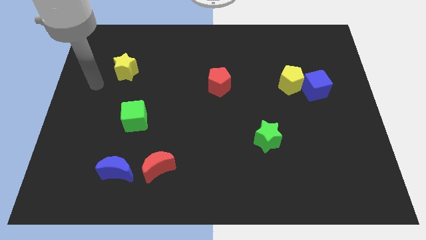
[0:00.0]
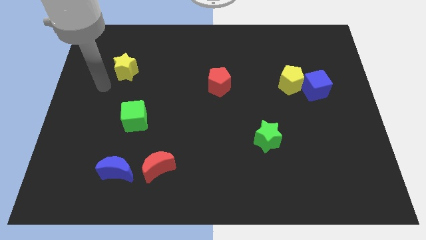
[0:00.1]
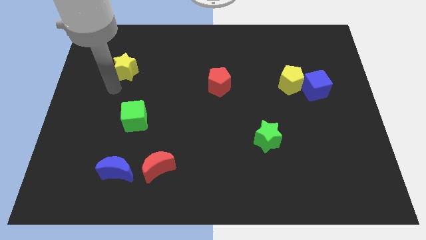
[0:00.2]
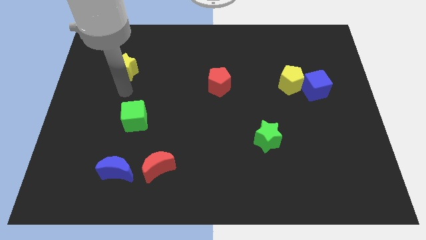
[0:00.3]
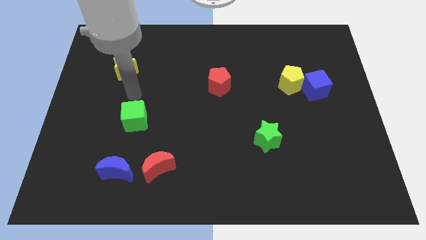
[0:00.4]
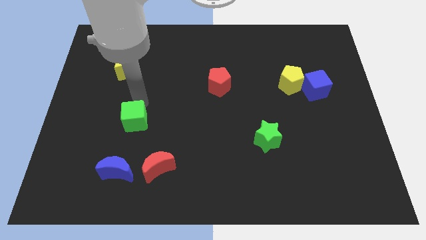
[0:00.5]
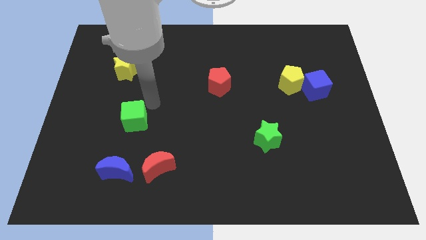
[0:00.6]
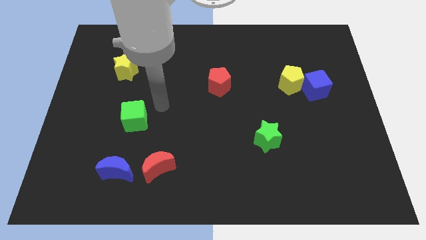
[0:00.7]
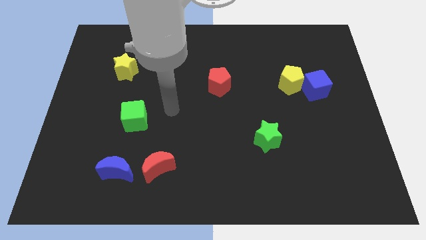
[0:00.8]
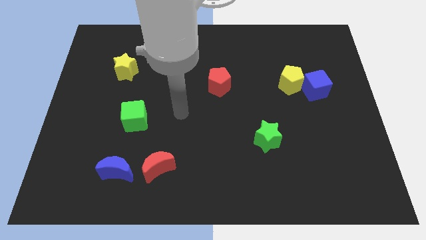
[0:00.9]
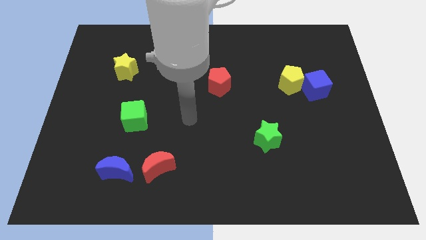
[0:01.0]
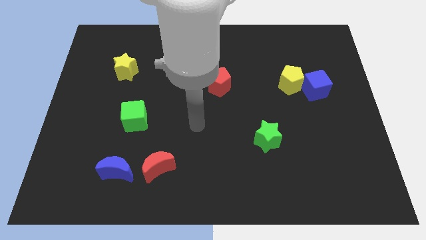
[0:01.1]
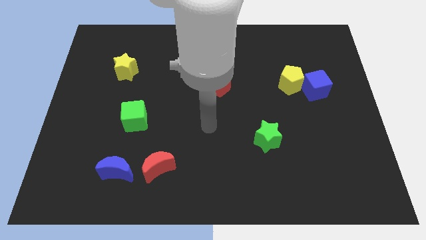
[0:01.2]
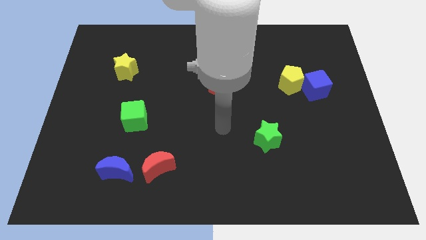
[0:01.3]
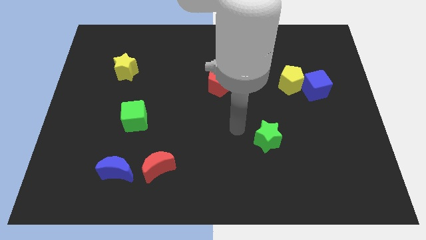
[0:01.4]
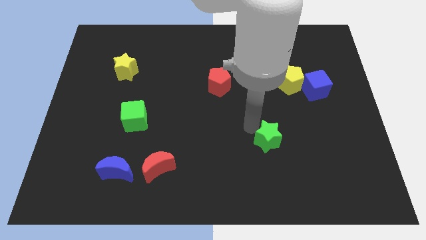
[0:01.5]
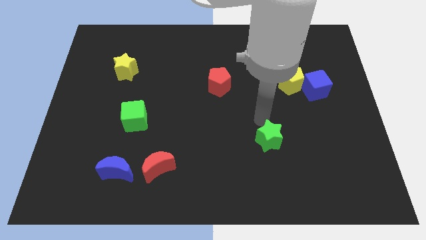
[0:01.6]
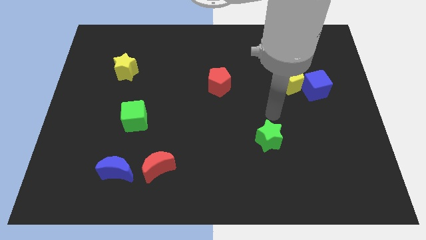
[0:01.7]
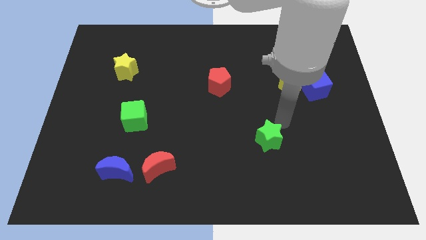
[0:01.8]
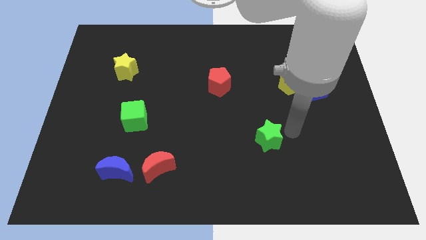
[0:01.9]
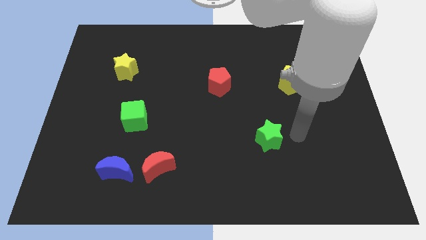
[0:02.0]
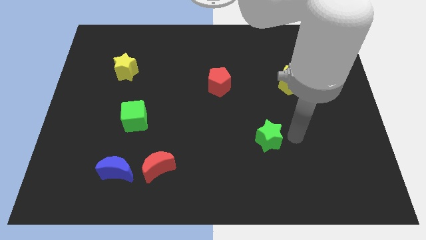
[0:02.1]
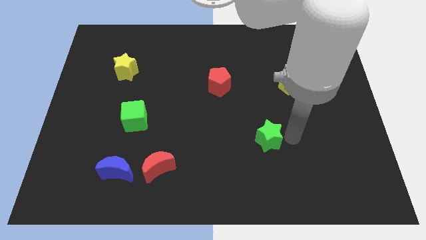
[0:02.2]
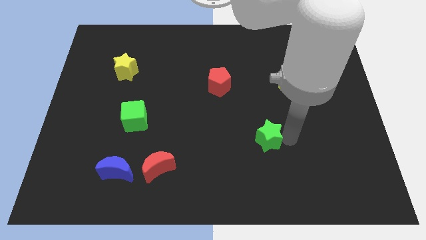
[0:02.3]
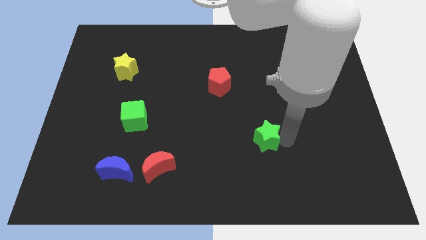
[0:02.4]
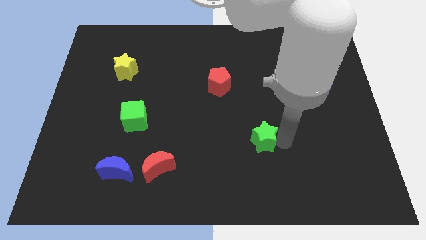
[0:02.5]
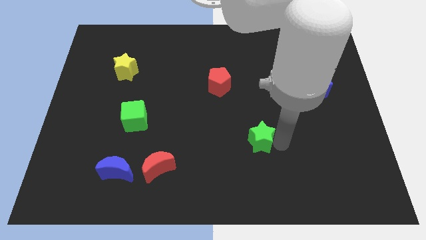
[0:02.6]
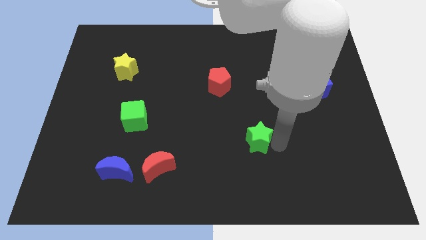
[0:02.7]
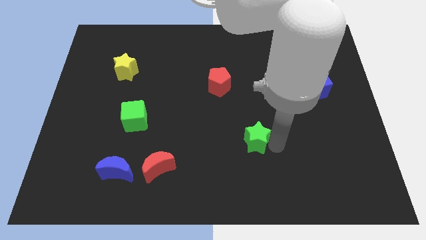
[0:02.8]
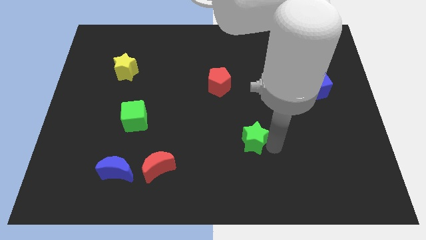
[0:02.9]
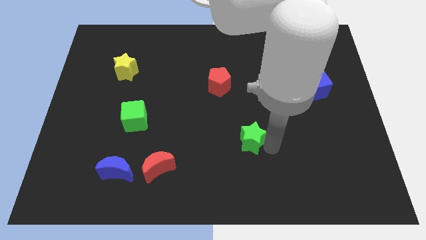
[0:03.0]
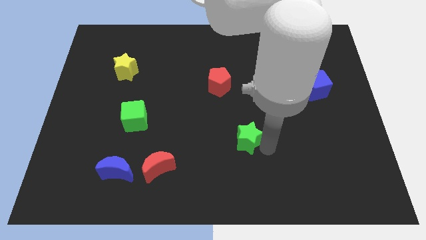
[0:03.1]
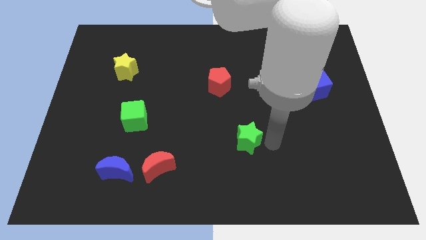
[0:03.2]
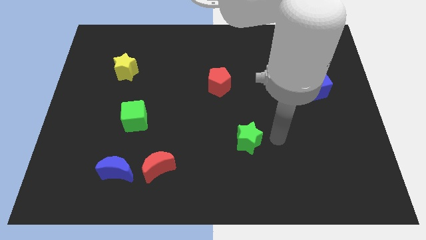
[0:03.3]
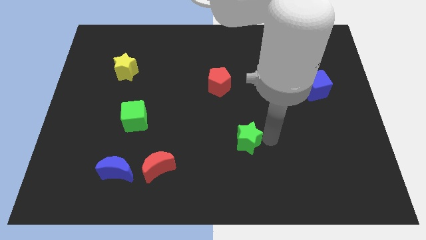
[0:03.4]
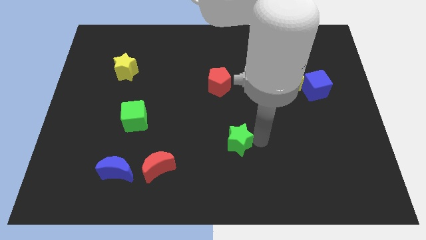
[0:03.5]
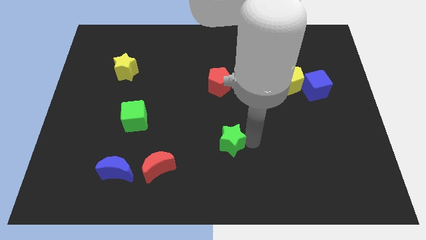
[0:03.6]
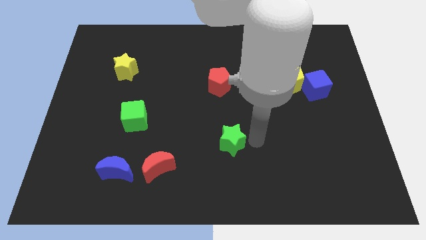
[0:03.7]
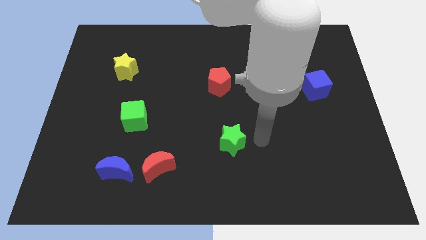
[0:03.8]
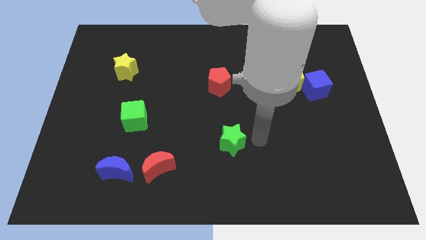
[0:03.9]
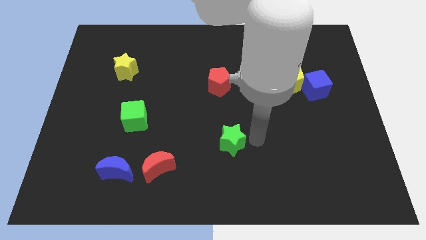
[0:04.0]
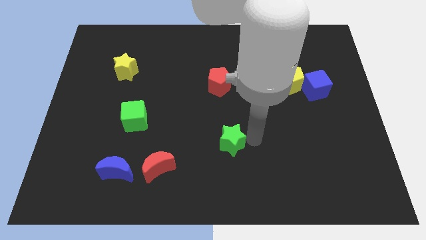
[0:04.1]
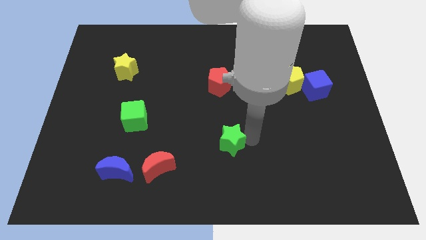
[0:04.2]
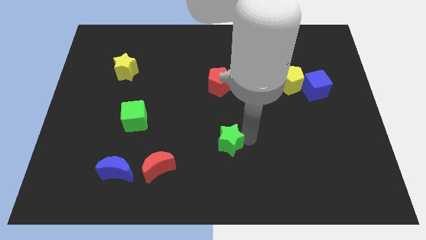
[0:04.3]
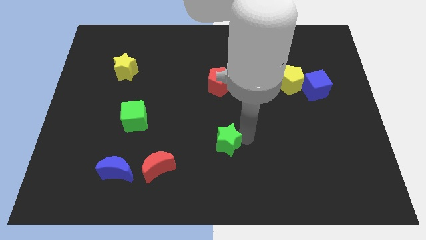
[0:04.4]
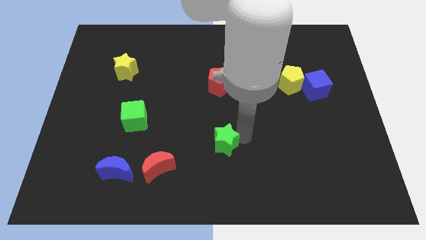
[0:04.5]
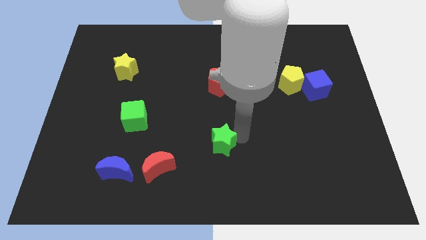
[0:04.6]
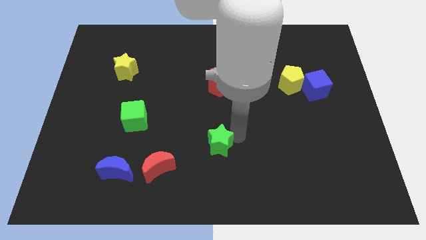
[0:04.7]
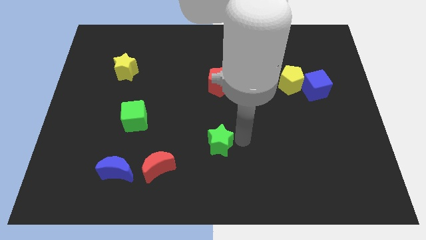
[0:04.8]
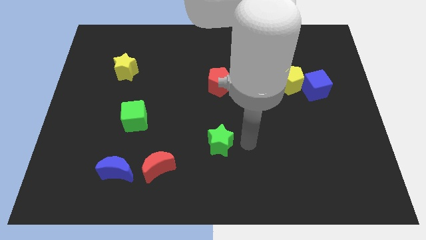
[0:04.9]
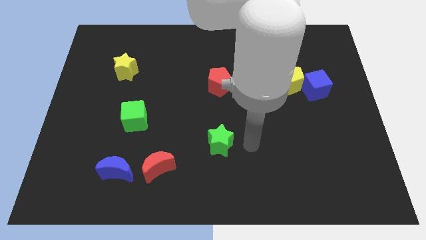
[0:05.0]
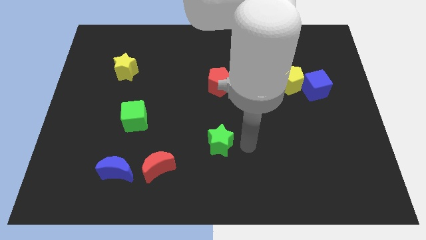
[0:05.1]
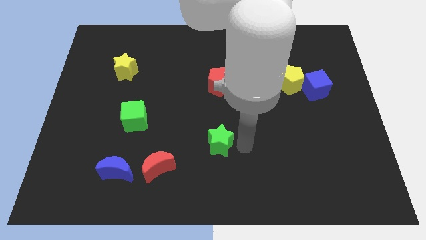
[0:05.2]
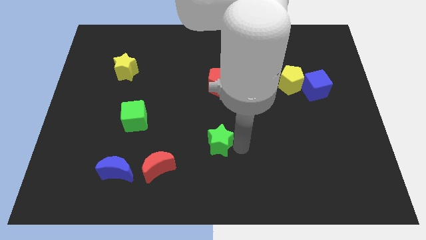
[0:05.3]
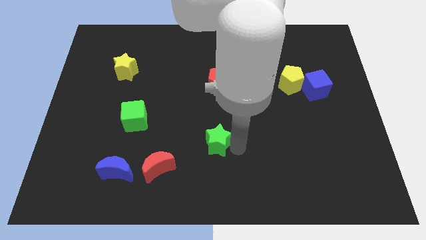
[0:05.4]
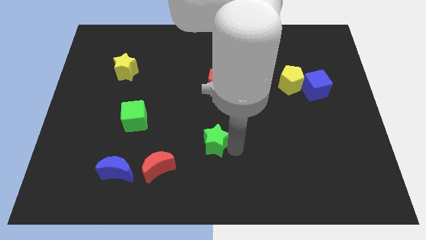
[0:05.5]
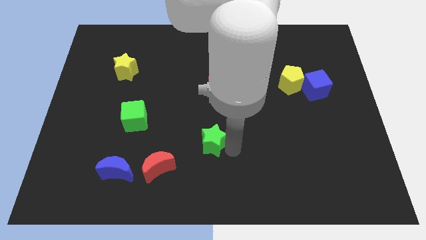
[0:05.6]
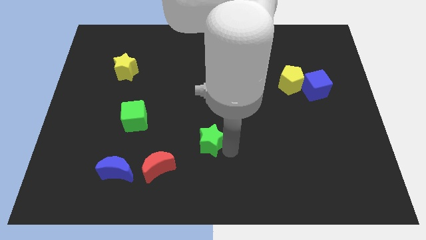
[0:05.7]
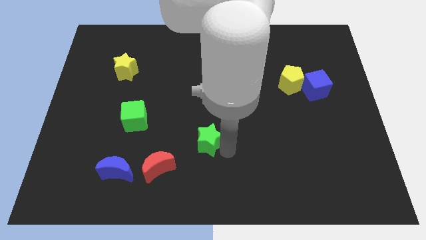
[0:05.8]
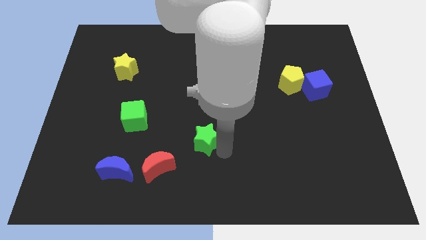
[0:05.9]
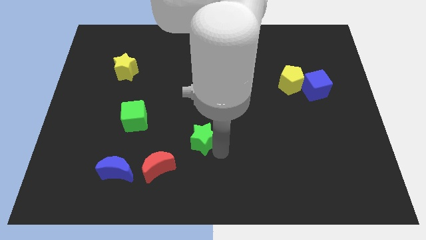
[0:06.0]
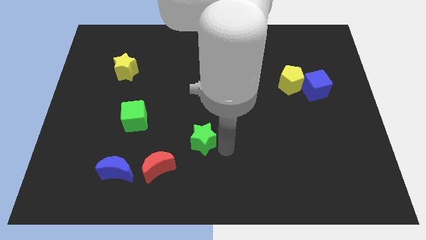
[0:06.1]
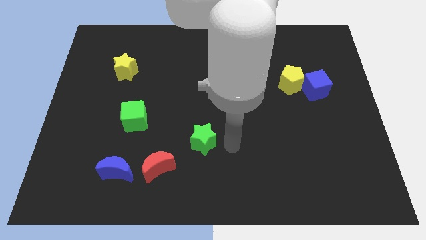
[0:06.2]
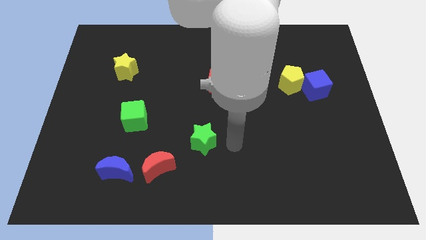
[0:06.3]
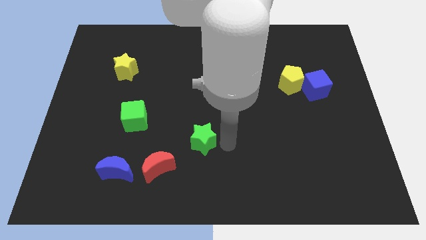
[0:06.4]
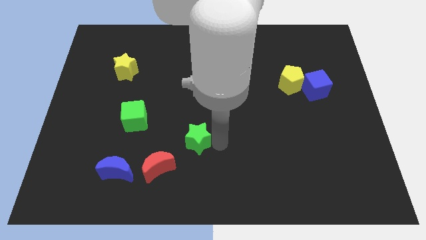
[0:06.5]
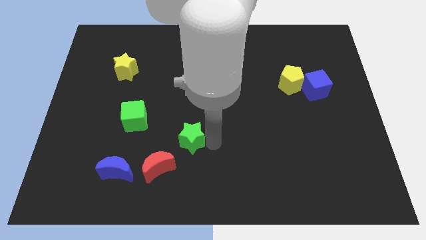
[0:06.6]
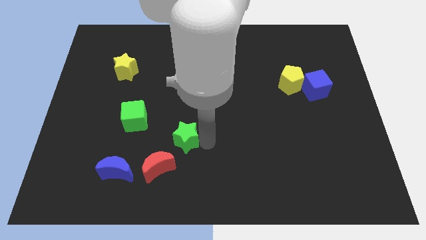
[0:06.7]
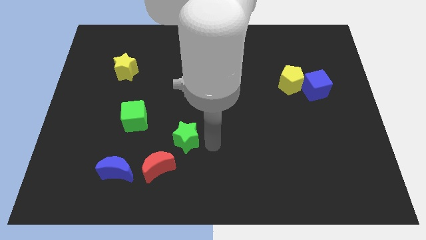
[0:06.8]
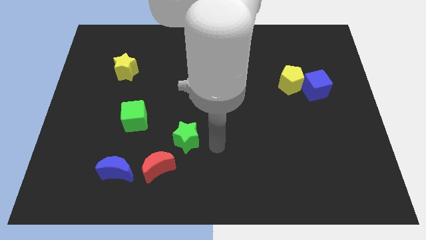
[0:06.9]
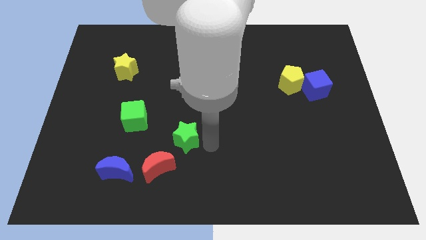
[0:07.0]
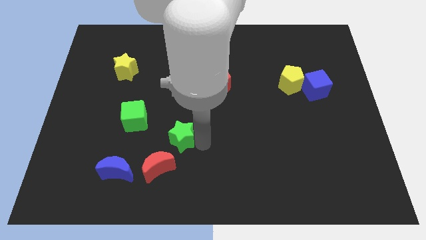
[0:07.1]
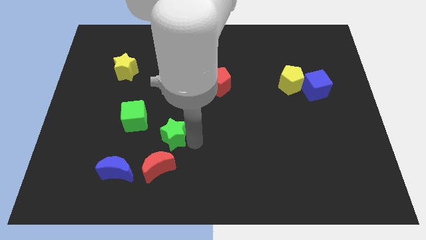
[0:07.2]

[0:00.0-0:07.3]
move the green star to the left

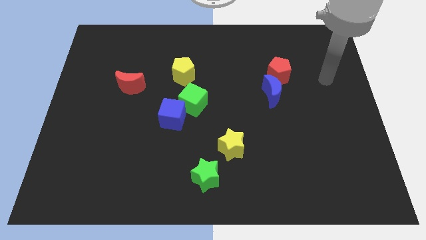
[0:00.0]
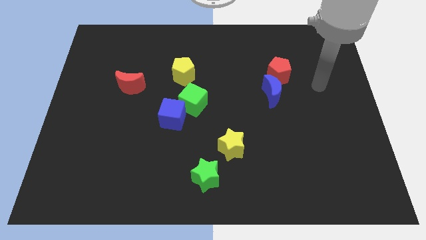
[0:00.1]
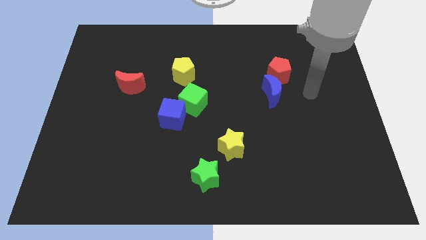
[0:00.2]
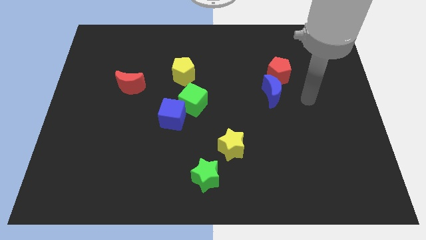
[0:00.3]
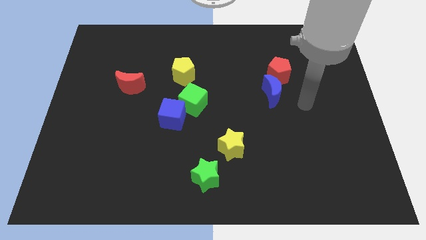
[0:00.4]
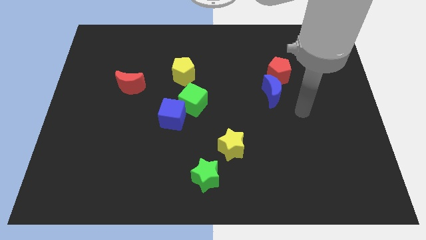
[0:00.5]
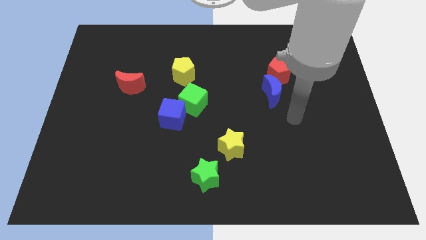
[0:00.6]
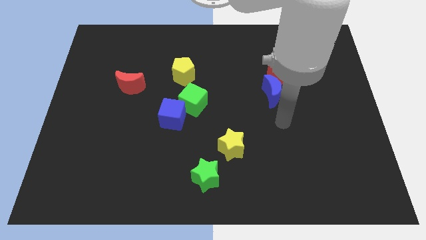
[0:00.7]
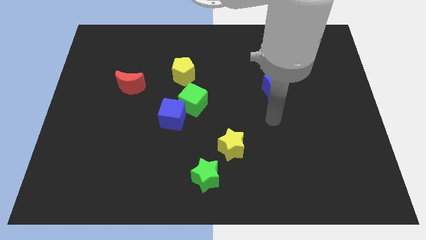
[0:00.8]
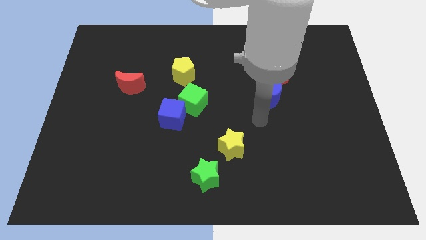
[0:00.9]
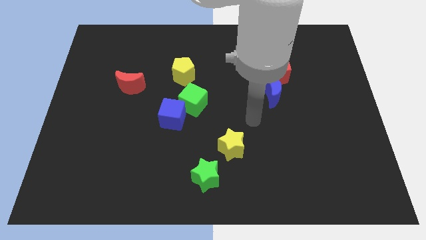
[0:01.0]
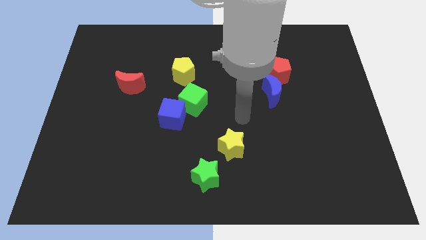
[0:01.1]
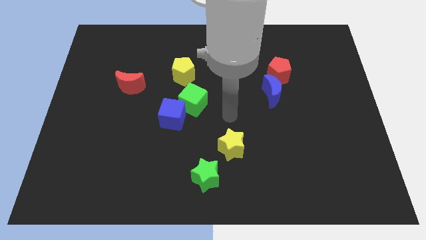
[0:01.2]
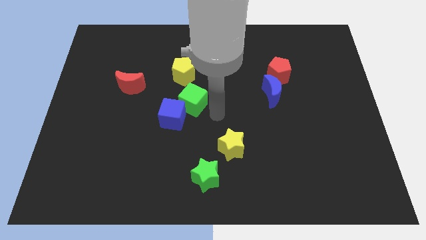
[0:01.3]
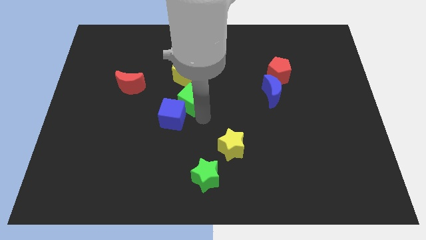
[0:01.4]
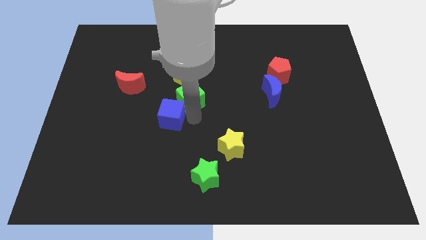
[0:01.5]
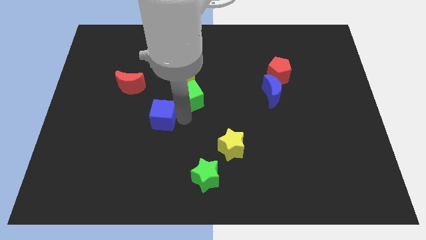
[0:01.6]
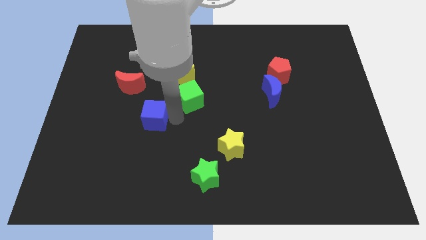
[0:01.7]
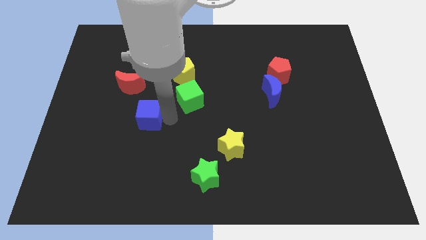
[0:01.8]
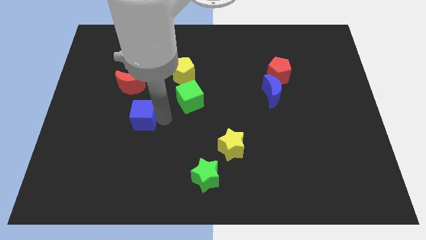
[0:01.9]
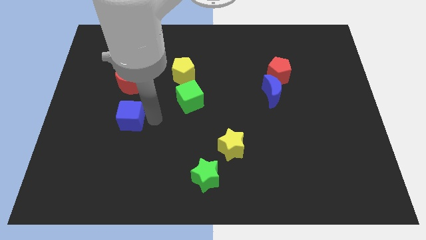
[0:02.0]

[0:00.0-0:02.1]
slightly move the blue cube left
